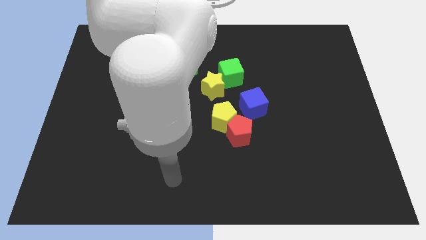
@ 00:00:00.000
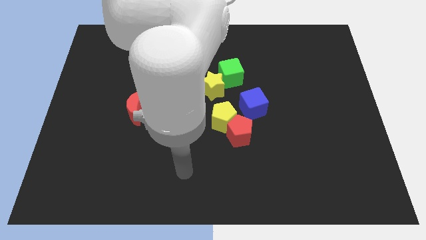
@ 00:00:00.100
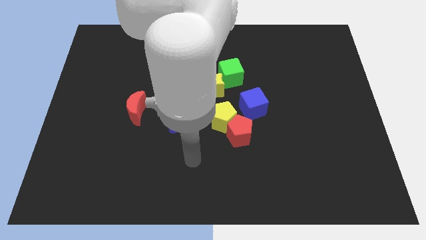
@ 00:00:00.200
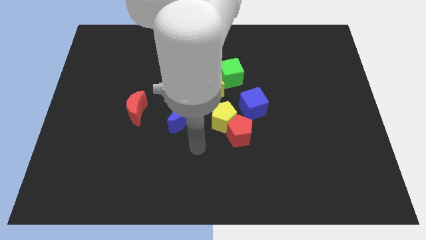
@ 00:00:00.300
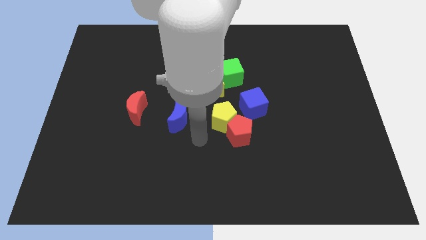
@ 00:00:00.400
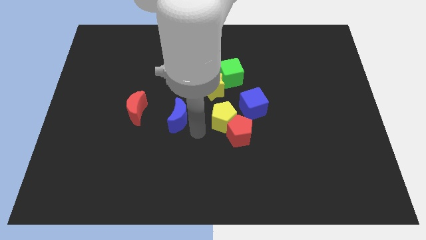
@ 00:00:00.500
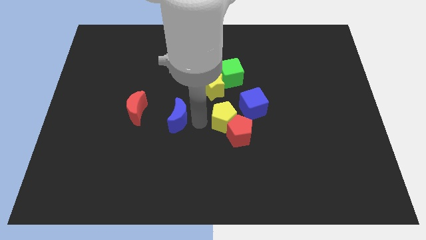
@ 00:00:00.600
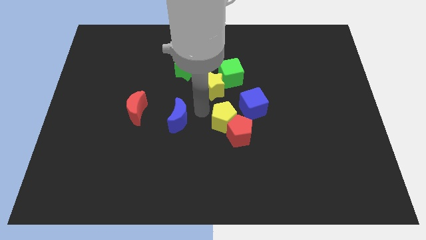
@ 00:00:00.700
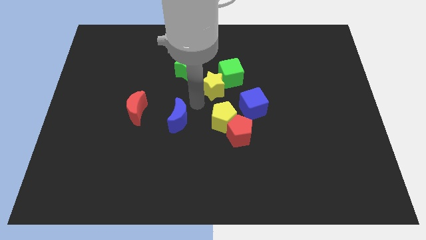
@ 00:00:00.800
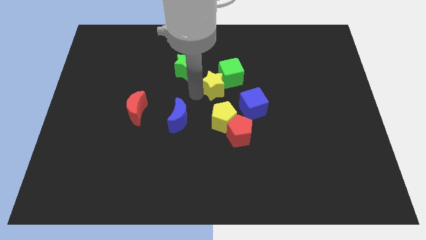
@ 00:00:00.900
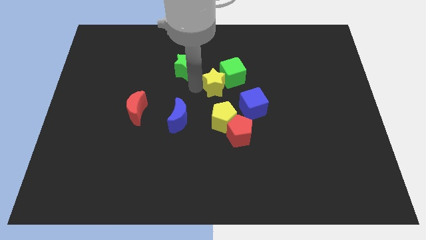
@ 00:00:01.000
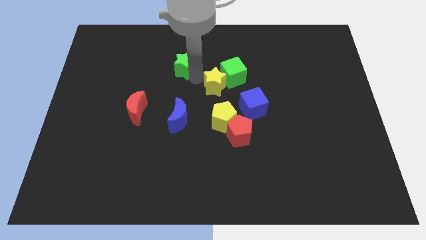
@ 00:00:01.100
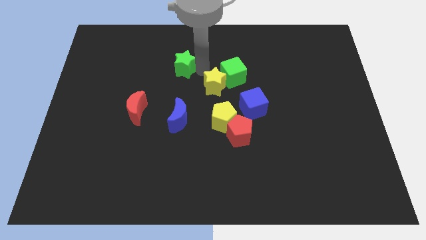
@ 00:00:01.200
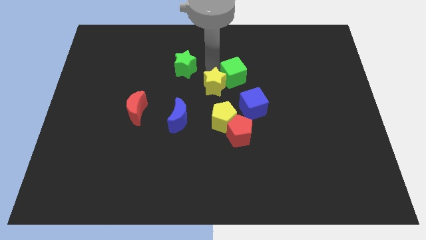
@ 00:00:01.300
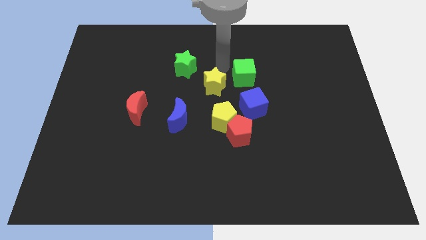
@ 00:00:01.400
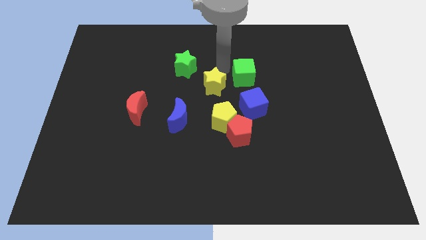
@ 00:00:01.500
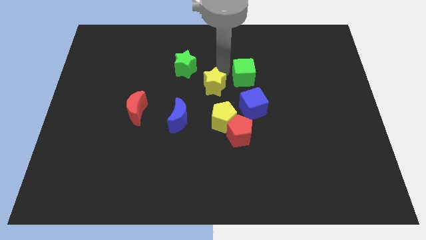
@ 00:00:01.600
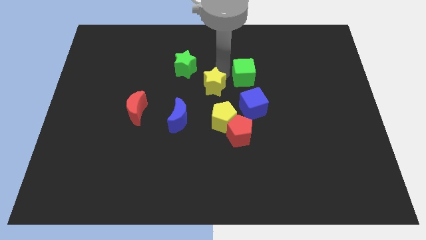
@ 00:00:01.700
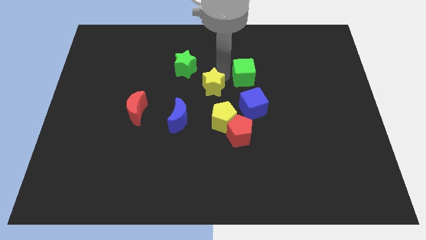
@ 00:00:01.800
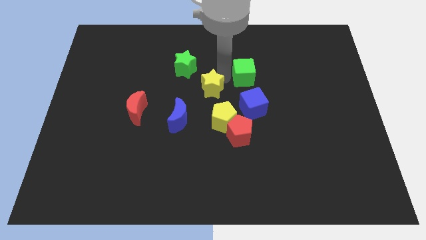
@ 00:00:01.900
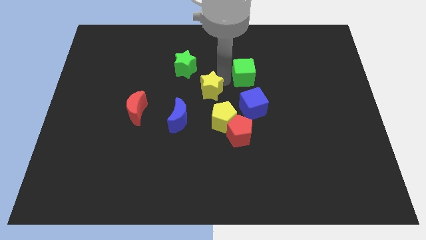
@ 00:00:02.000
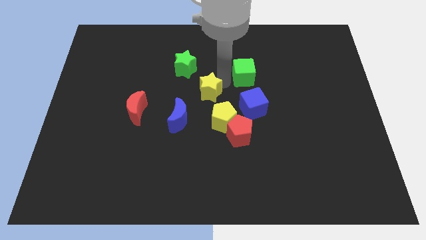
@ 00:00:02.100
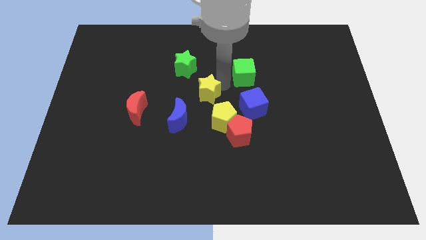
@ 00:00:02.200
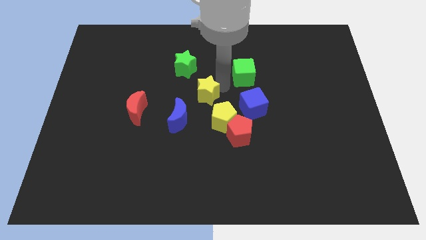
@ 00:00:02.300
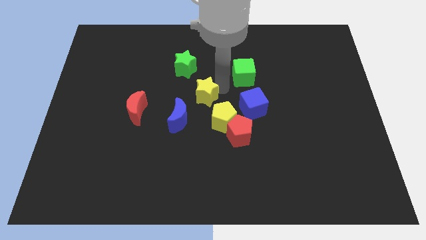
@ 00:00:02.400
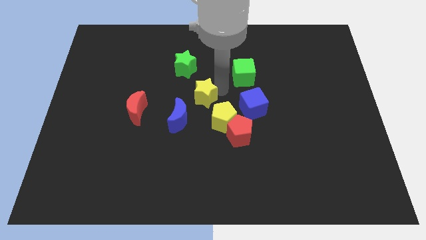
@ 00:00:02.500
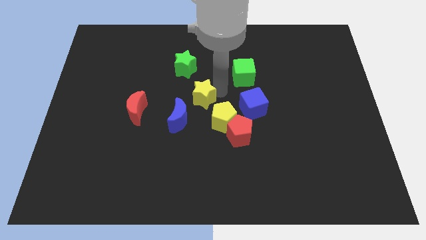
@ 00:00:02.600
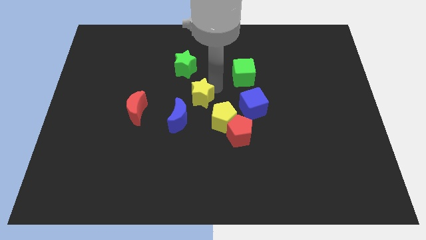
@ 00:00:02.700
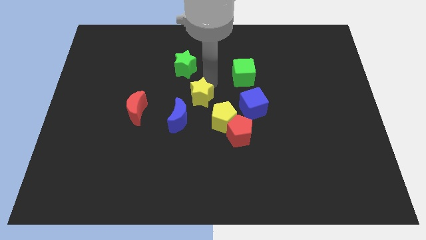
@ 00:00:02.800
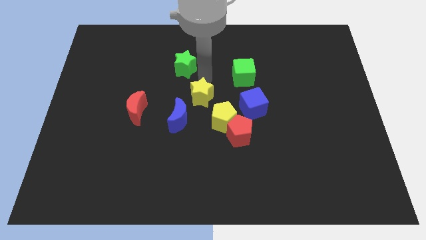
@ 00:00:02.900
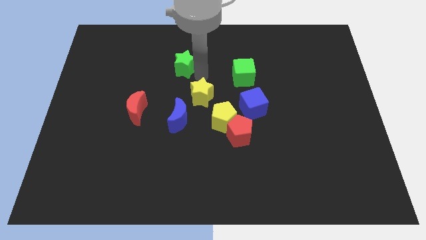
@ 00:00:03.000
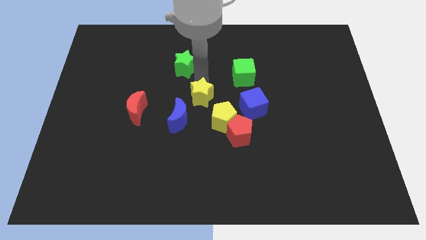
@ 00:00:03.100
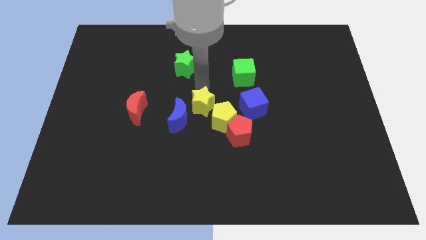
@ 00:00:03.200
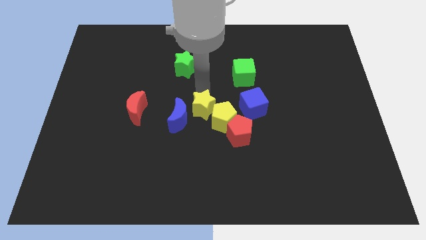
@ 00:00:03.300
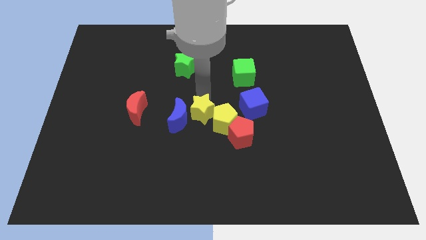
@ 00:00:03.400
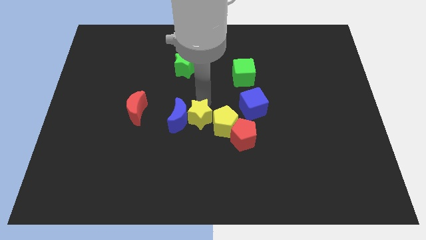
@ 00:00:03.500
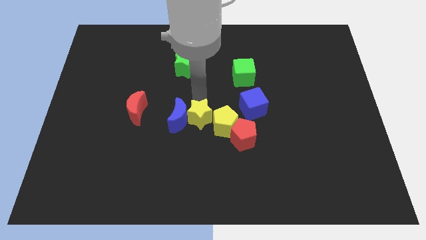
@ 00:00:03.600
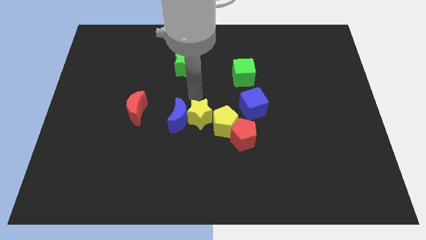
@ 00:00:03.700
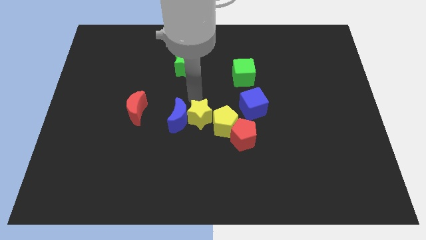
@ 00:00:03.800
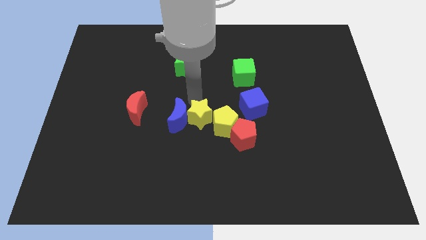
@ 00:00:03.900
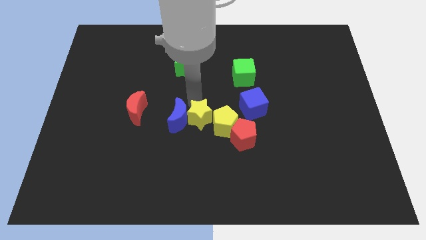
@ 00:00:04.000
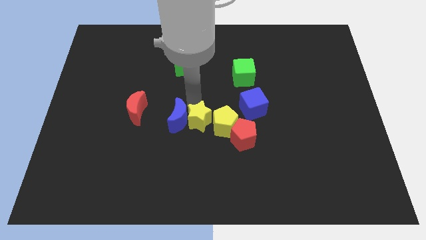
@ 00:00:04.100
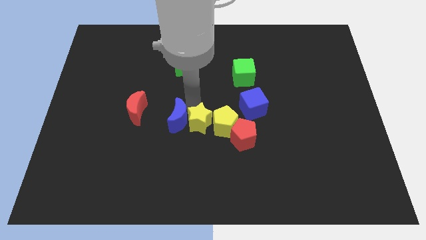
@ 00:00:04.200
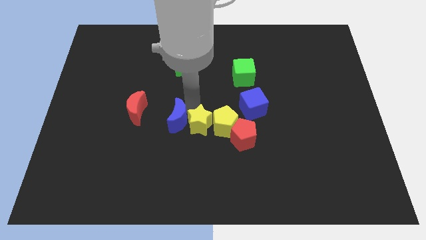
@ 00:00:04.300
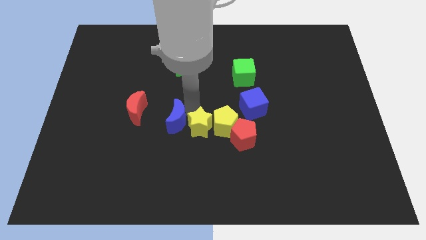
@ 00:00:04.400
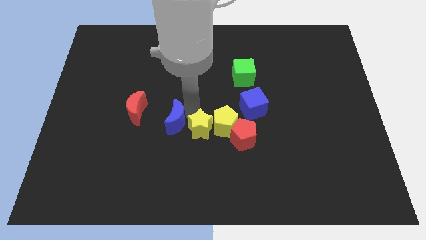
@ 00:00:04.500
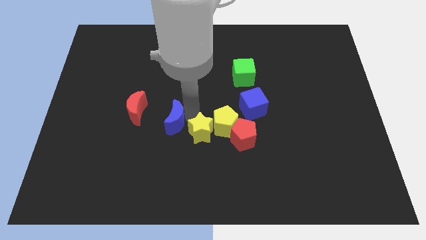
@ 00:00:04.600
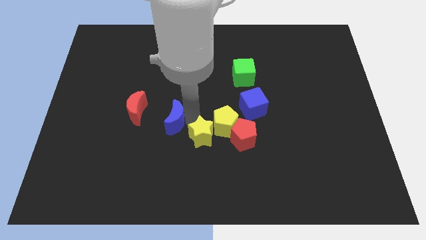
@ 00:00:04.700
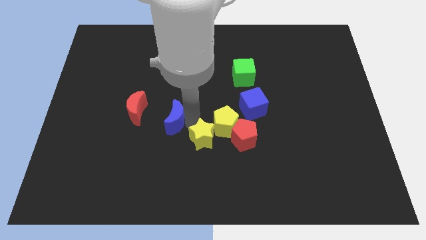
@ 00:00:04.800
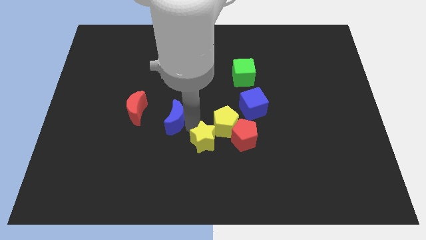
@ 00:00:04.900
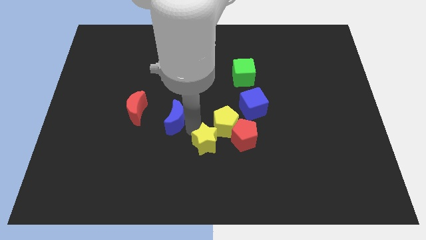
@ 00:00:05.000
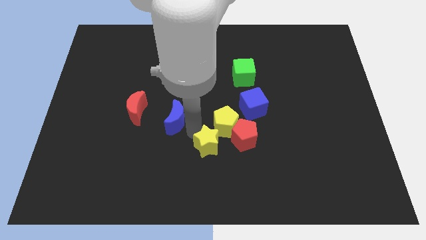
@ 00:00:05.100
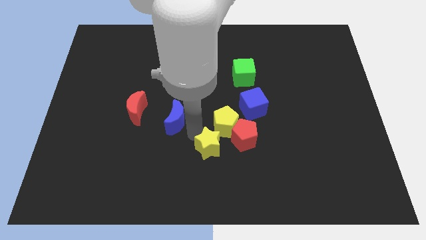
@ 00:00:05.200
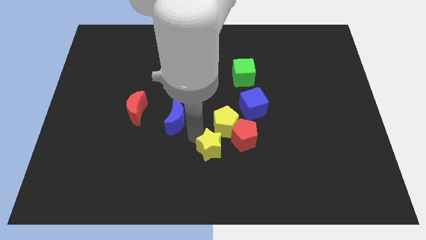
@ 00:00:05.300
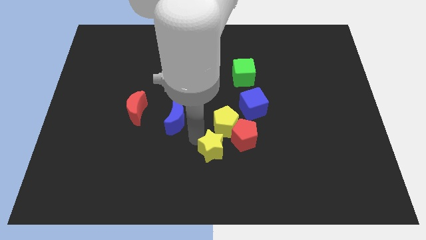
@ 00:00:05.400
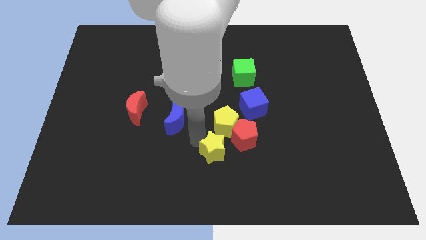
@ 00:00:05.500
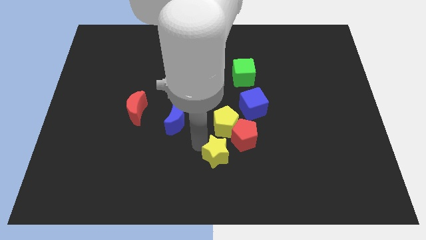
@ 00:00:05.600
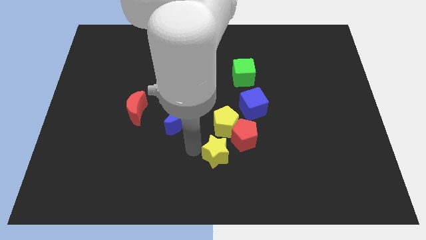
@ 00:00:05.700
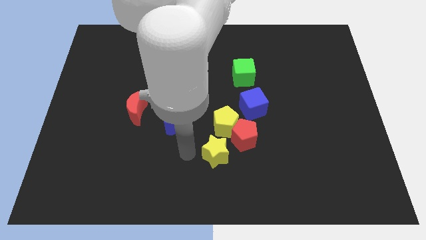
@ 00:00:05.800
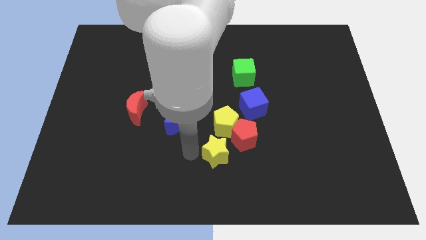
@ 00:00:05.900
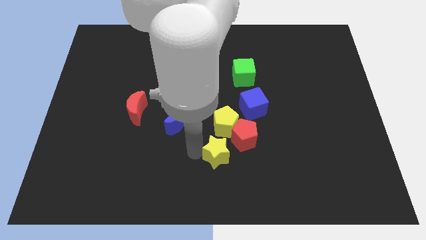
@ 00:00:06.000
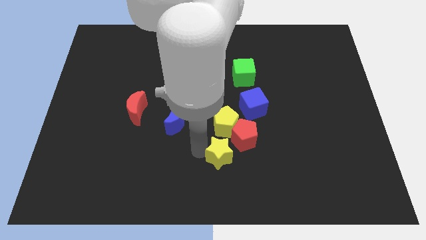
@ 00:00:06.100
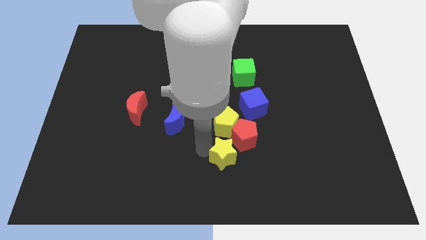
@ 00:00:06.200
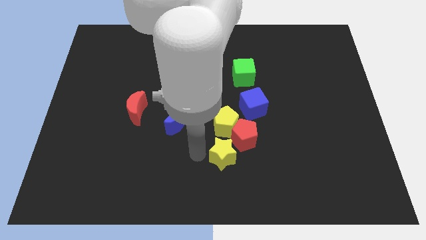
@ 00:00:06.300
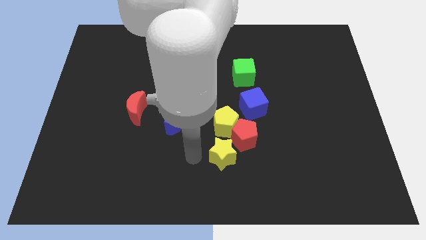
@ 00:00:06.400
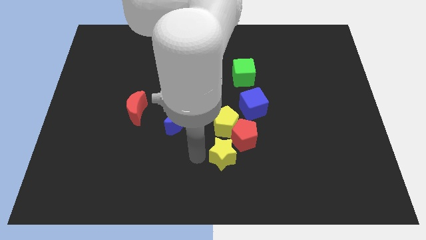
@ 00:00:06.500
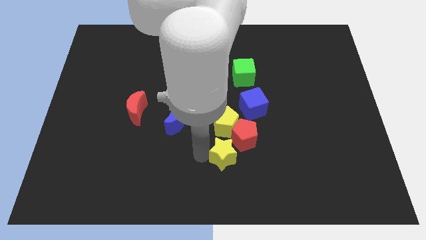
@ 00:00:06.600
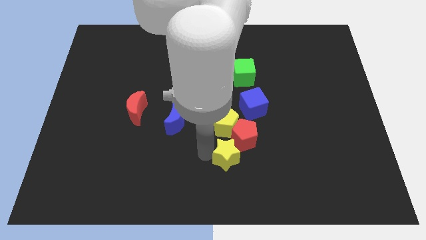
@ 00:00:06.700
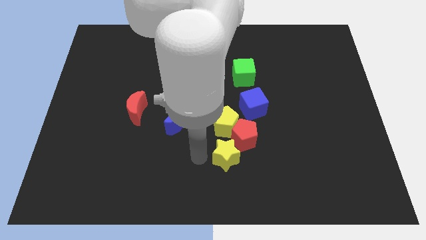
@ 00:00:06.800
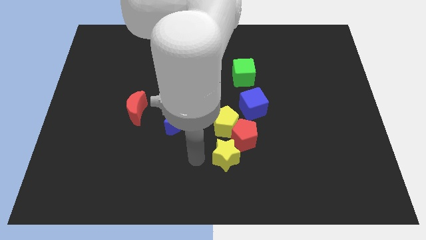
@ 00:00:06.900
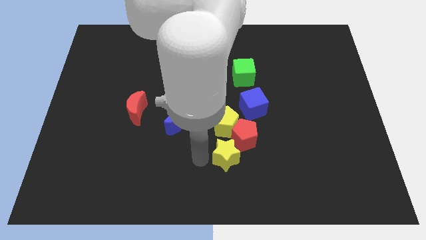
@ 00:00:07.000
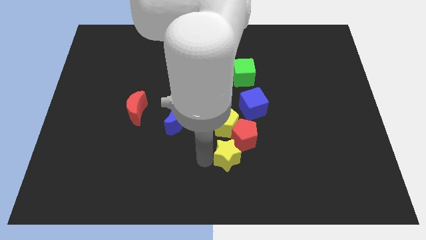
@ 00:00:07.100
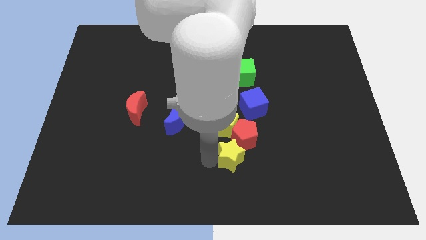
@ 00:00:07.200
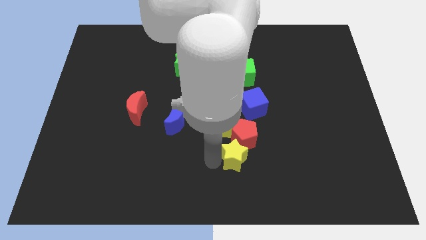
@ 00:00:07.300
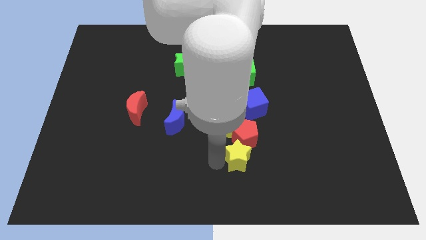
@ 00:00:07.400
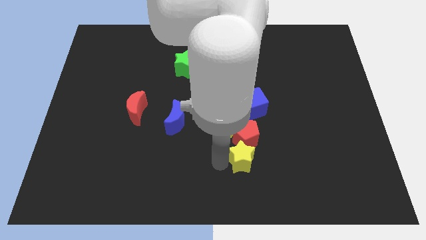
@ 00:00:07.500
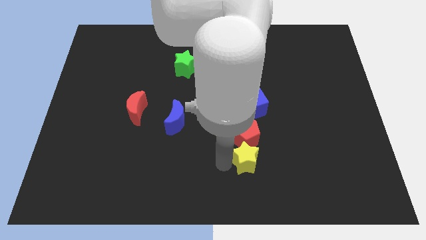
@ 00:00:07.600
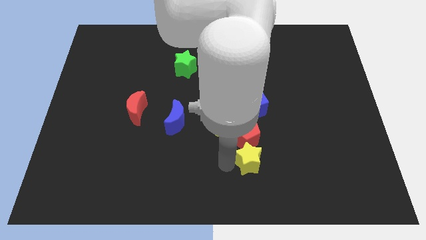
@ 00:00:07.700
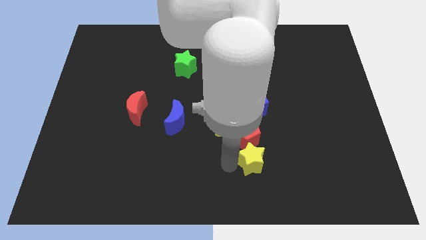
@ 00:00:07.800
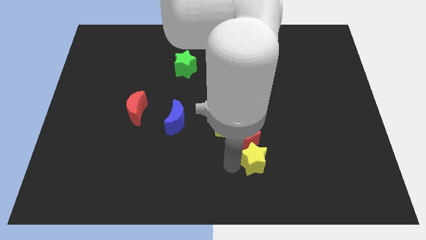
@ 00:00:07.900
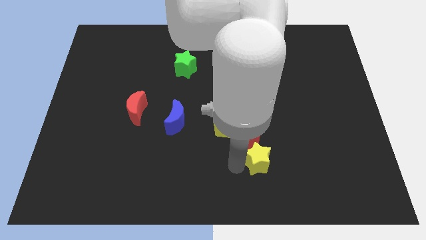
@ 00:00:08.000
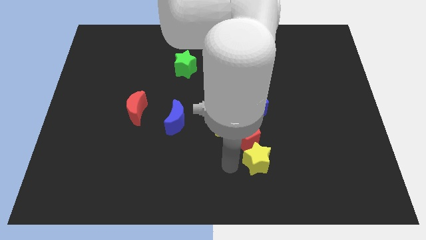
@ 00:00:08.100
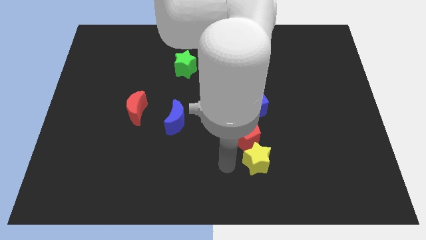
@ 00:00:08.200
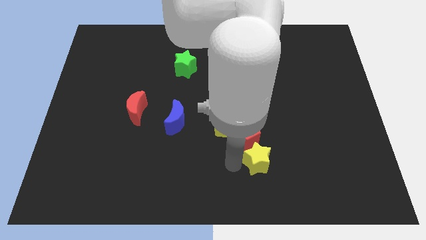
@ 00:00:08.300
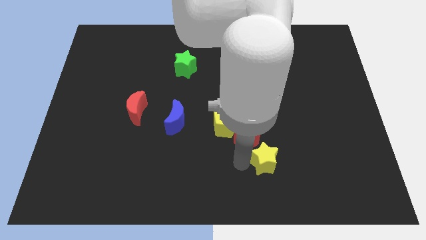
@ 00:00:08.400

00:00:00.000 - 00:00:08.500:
move the yellow star diagonally downwards and to the right
